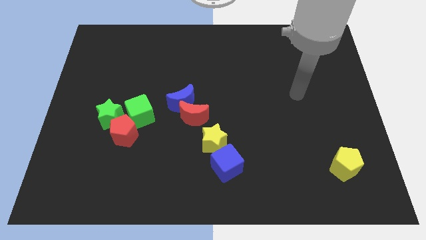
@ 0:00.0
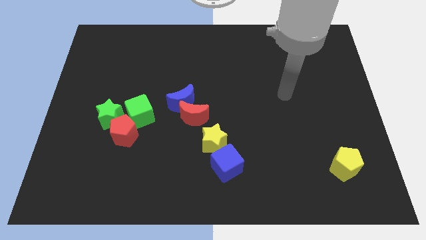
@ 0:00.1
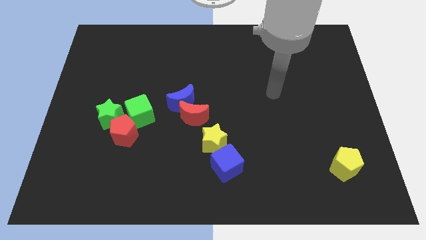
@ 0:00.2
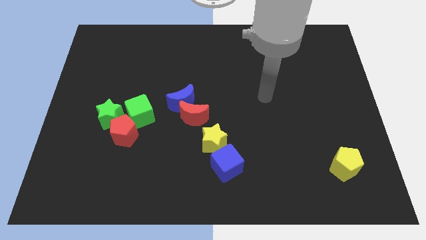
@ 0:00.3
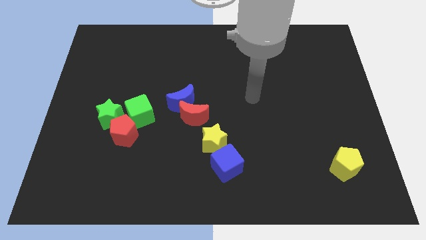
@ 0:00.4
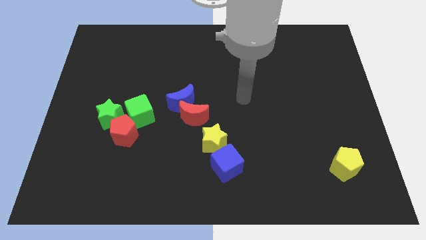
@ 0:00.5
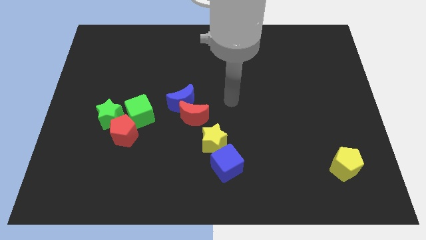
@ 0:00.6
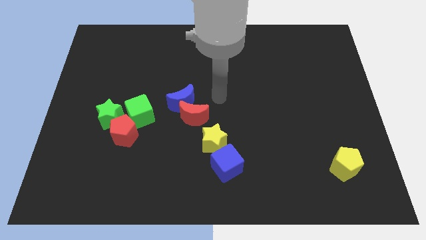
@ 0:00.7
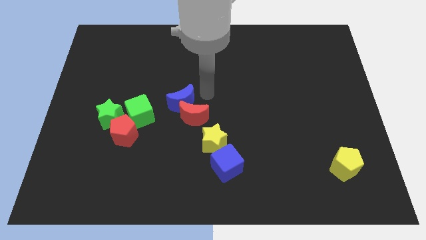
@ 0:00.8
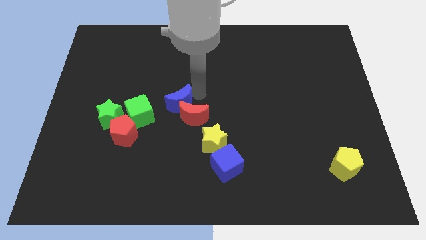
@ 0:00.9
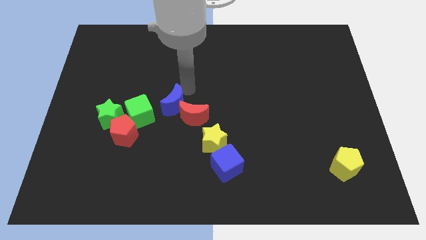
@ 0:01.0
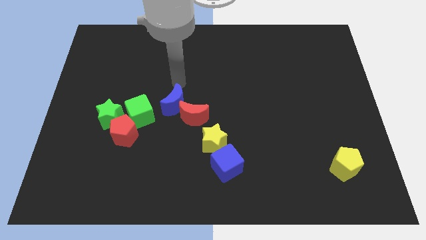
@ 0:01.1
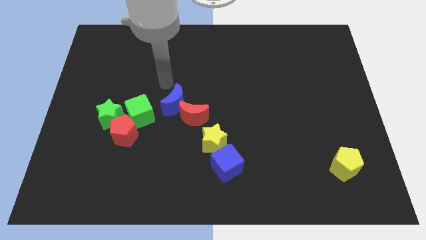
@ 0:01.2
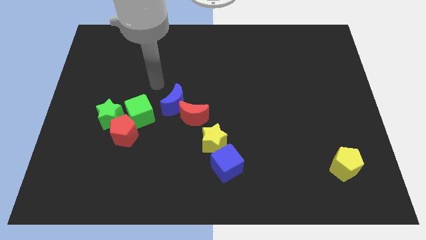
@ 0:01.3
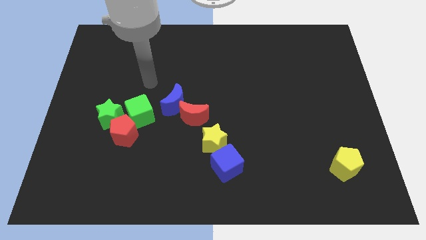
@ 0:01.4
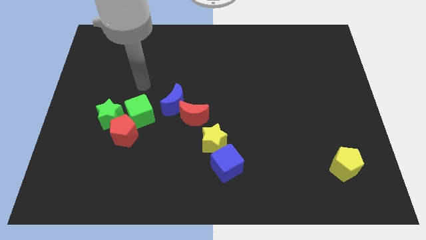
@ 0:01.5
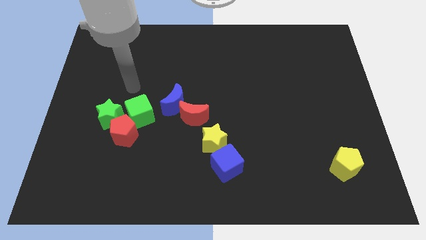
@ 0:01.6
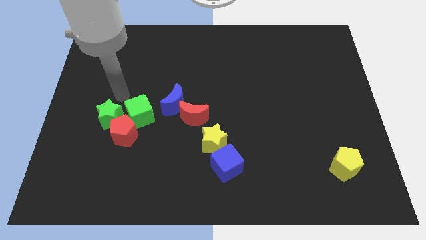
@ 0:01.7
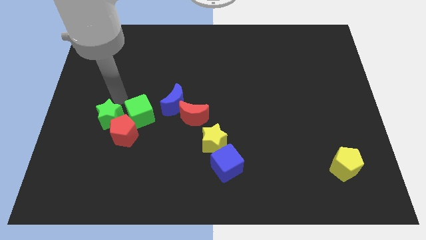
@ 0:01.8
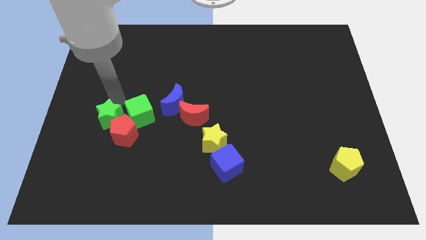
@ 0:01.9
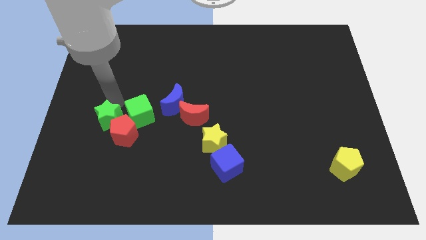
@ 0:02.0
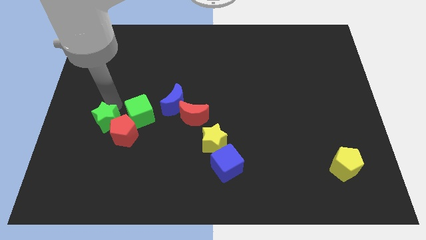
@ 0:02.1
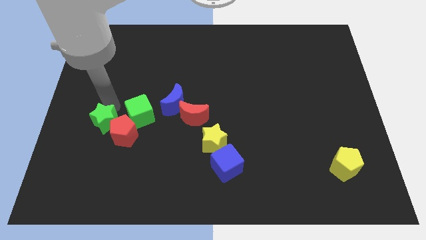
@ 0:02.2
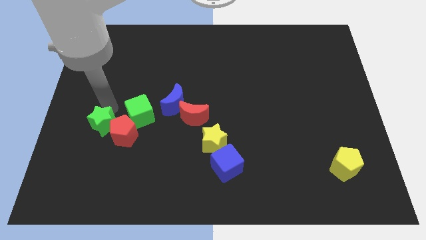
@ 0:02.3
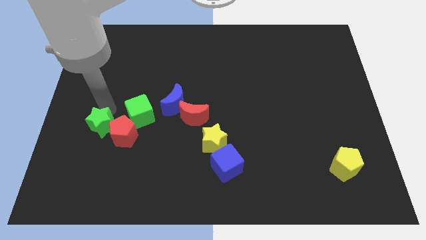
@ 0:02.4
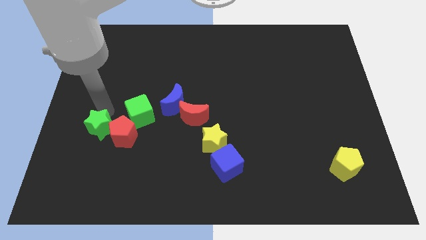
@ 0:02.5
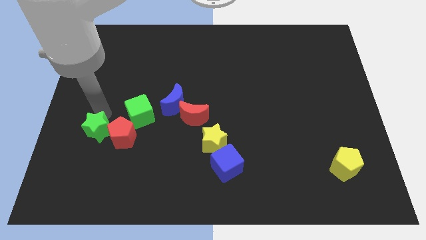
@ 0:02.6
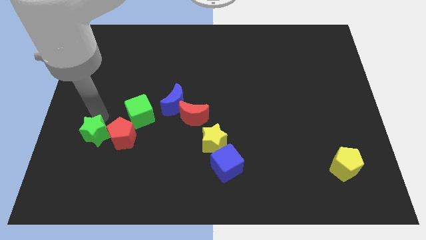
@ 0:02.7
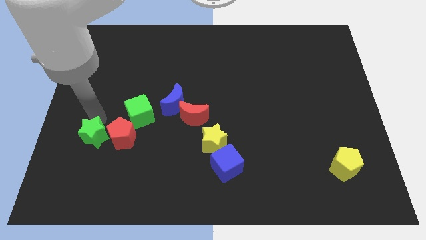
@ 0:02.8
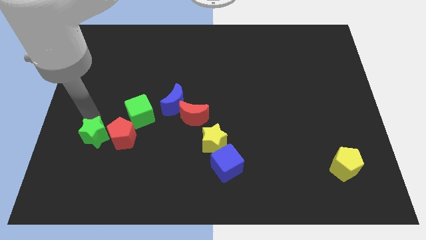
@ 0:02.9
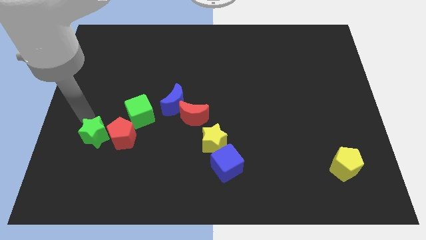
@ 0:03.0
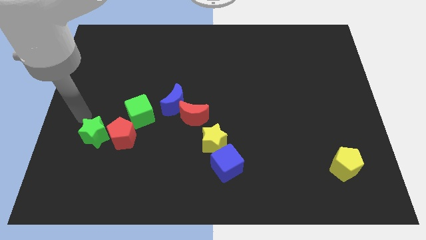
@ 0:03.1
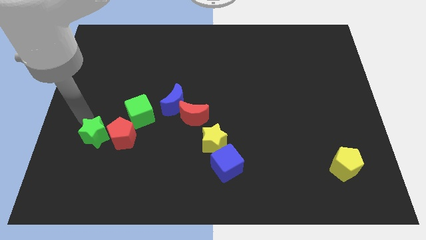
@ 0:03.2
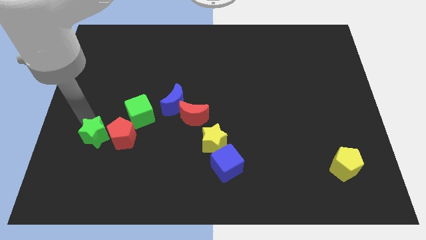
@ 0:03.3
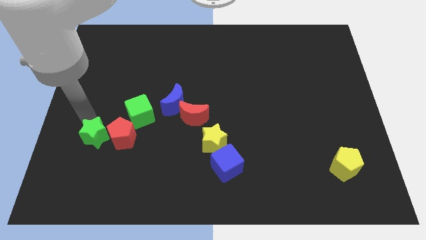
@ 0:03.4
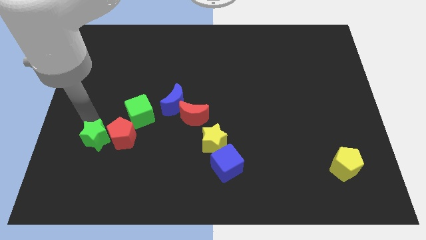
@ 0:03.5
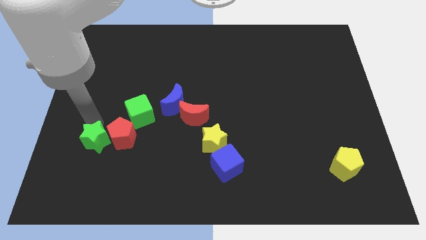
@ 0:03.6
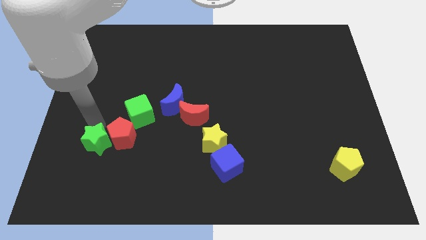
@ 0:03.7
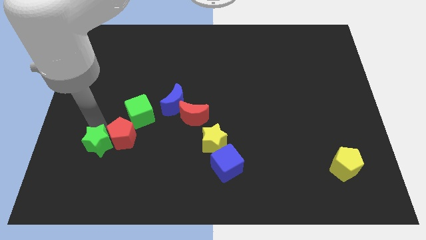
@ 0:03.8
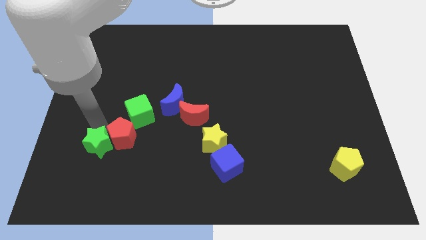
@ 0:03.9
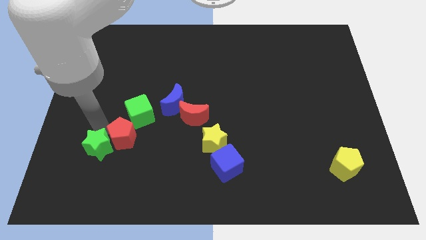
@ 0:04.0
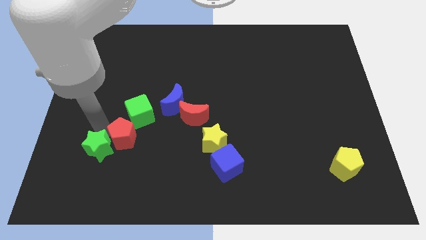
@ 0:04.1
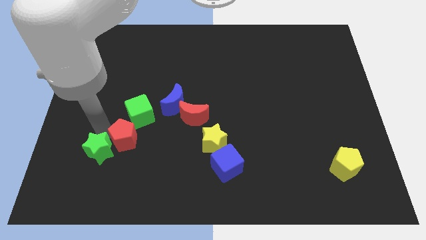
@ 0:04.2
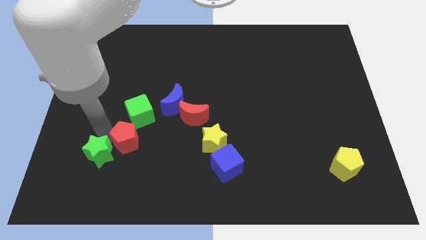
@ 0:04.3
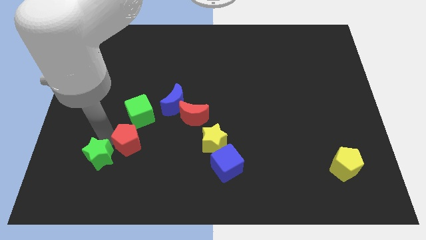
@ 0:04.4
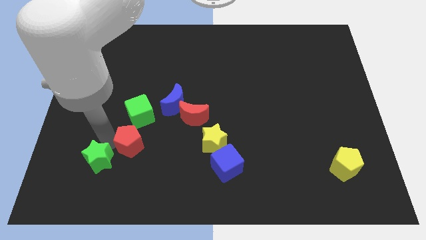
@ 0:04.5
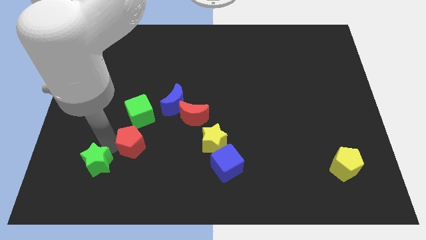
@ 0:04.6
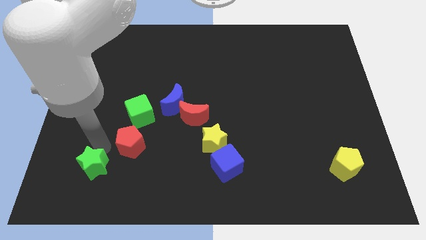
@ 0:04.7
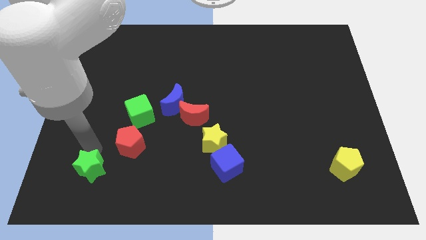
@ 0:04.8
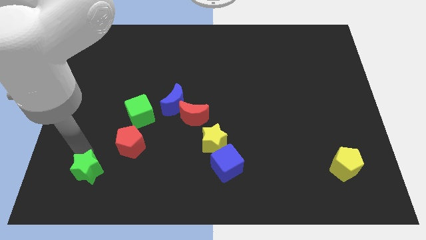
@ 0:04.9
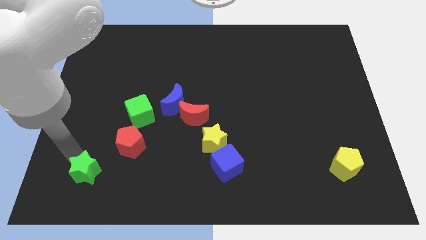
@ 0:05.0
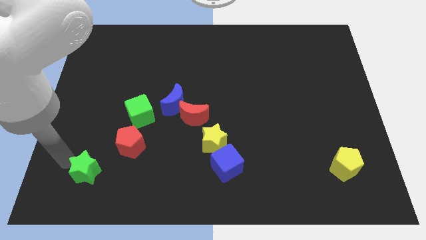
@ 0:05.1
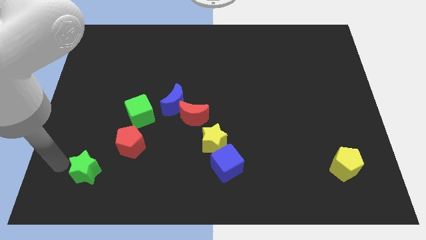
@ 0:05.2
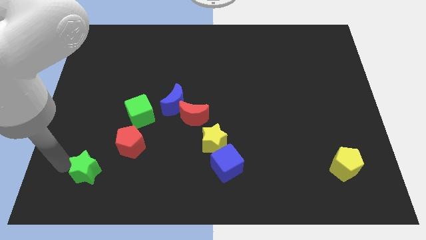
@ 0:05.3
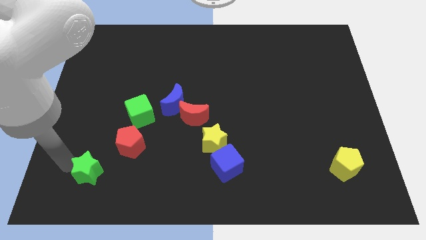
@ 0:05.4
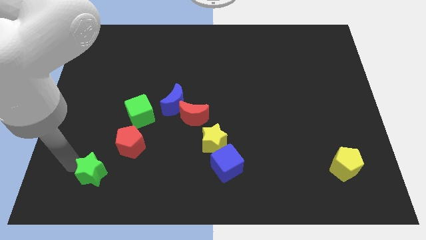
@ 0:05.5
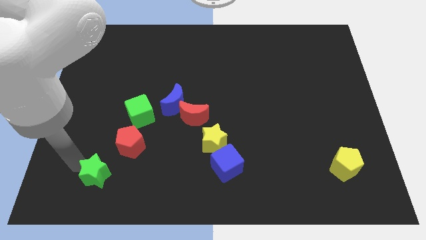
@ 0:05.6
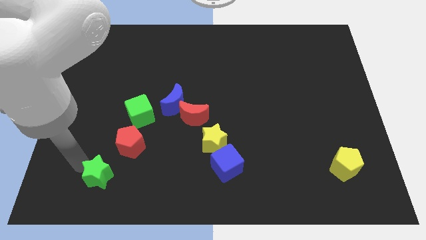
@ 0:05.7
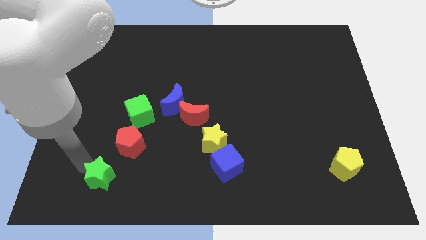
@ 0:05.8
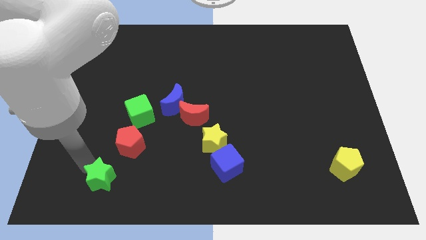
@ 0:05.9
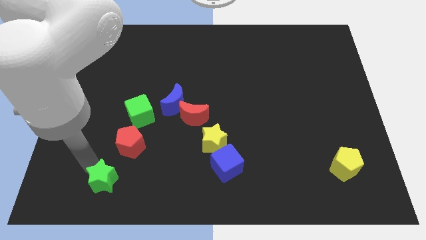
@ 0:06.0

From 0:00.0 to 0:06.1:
move the green star down and then to the right a little

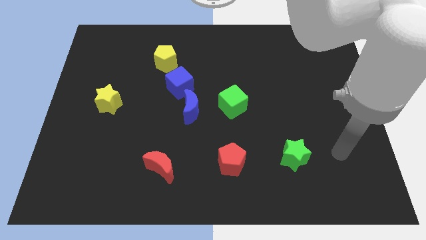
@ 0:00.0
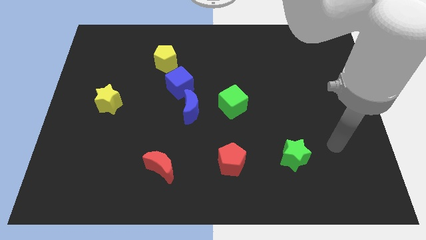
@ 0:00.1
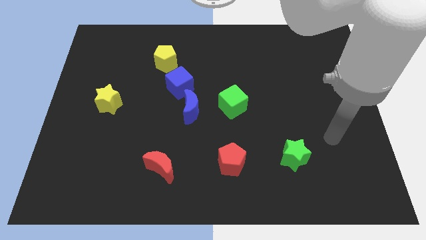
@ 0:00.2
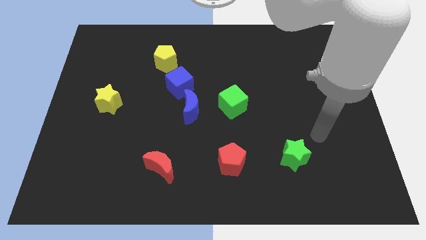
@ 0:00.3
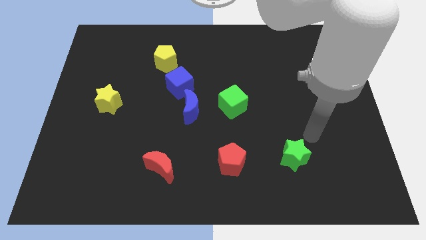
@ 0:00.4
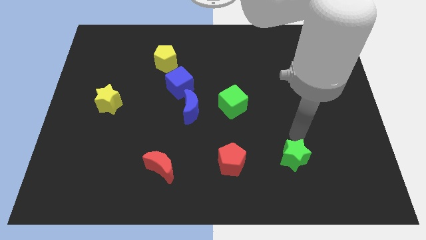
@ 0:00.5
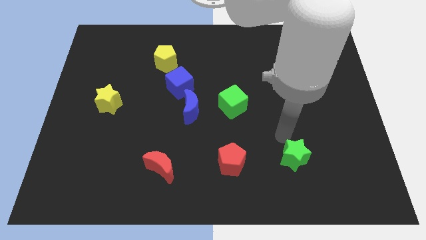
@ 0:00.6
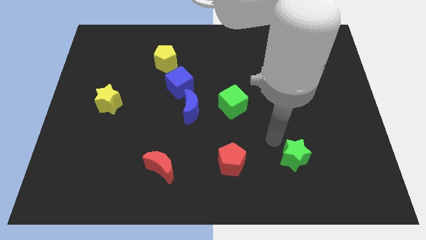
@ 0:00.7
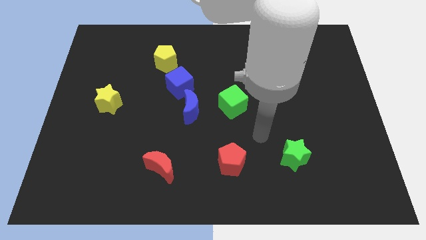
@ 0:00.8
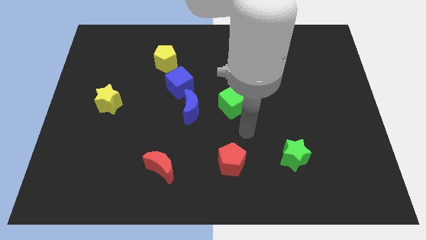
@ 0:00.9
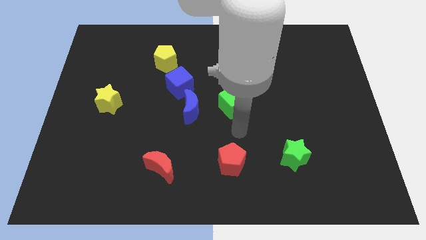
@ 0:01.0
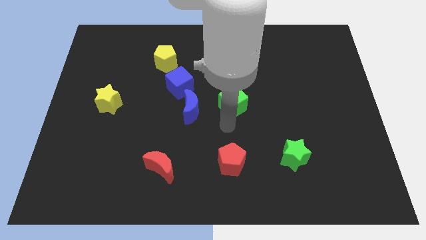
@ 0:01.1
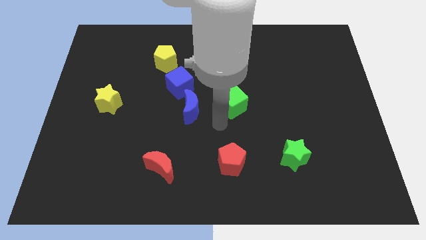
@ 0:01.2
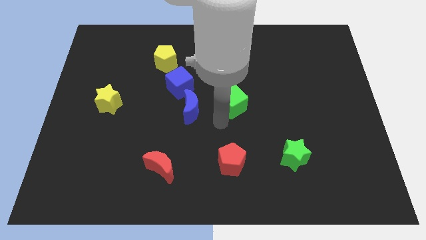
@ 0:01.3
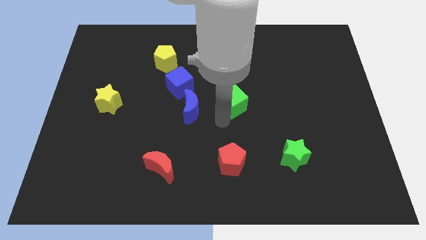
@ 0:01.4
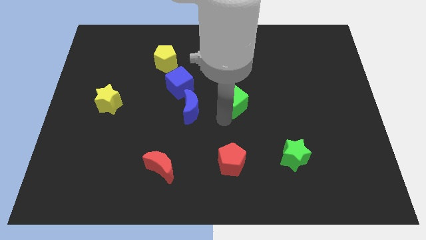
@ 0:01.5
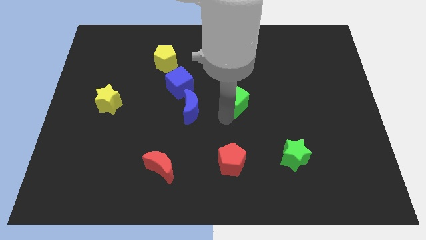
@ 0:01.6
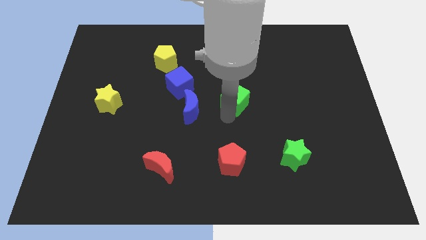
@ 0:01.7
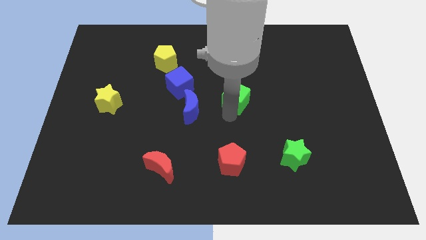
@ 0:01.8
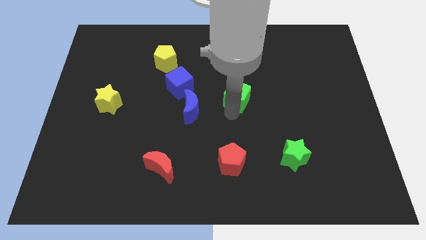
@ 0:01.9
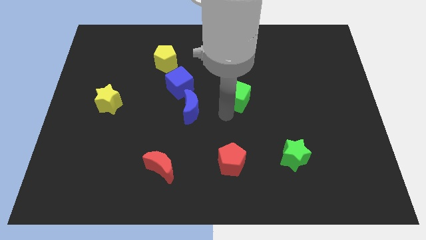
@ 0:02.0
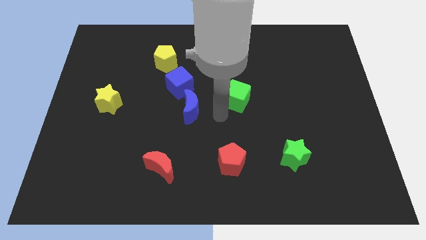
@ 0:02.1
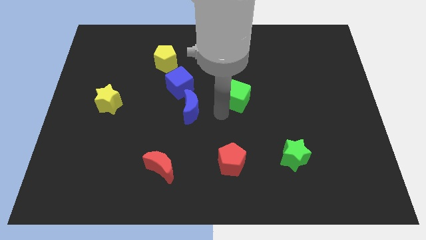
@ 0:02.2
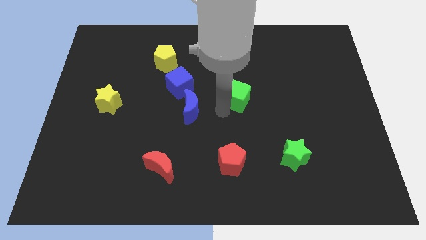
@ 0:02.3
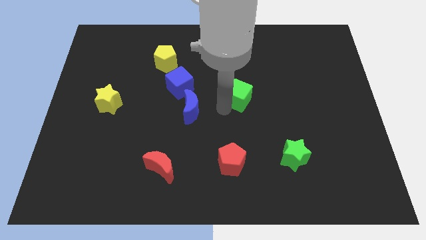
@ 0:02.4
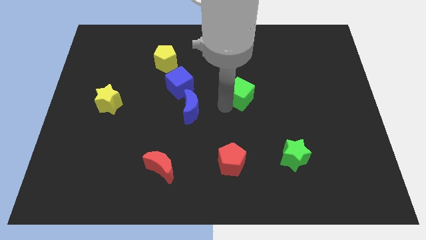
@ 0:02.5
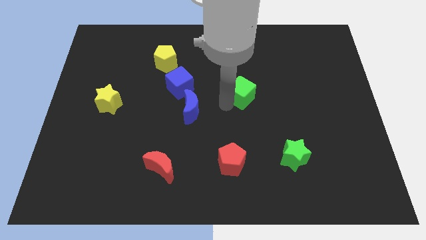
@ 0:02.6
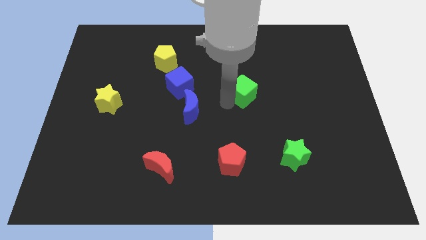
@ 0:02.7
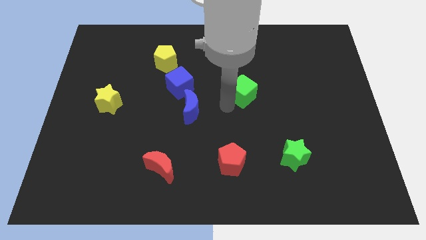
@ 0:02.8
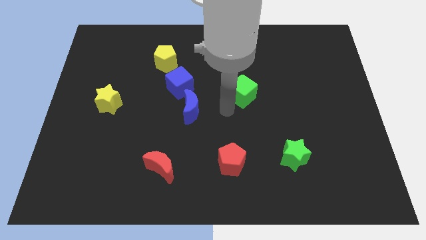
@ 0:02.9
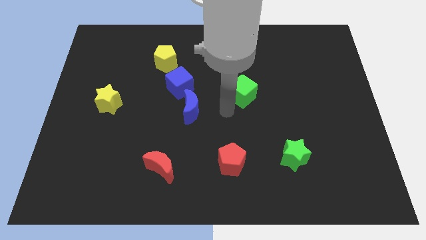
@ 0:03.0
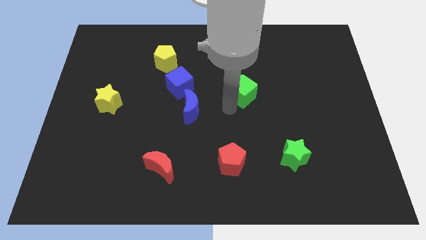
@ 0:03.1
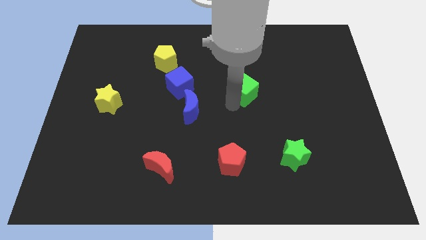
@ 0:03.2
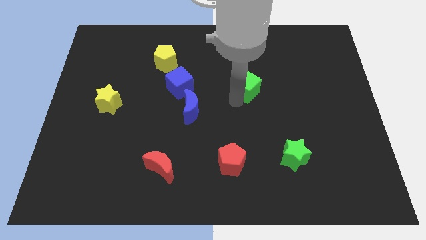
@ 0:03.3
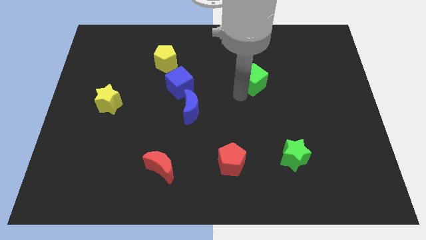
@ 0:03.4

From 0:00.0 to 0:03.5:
push the green cube up and right diagonally a bit
